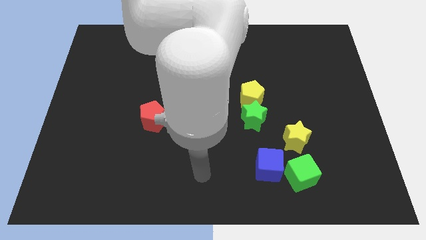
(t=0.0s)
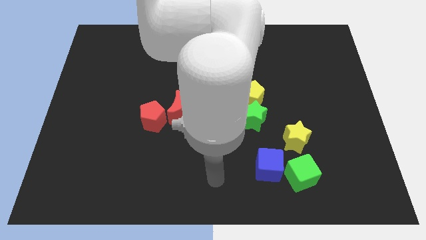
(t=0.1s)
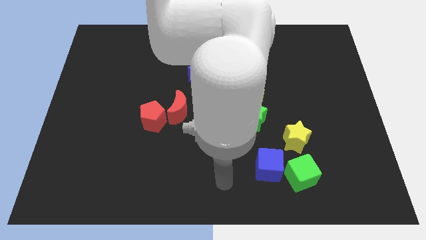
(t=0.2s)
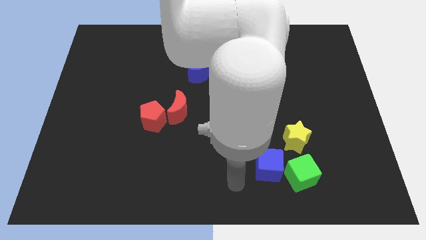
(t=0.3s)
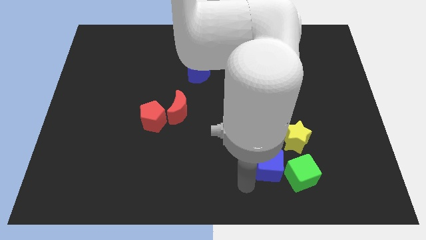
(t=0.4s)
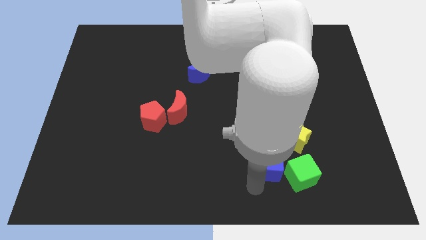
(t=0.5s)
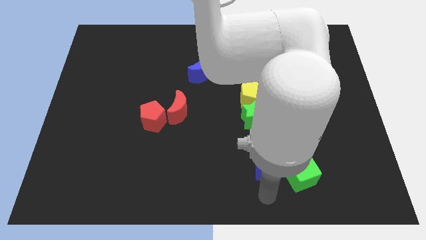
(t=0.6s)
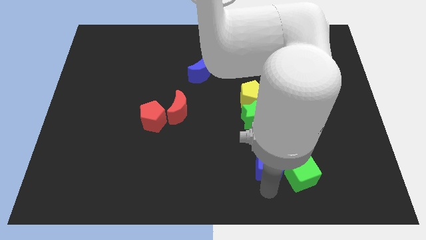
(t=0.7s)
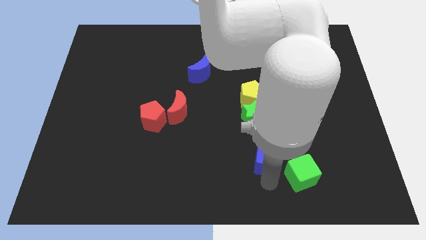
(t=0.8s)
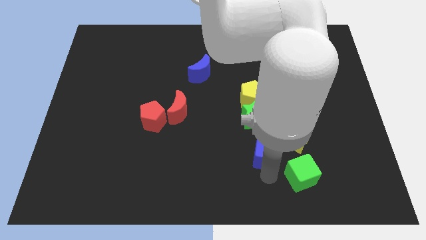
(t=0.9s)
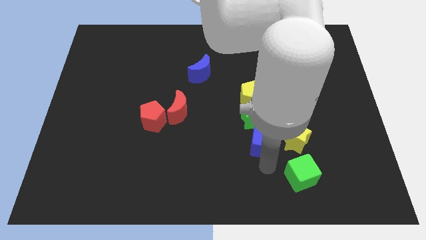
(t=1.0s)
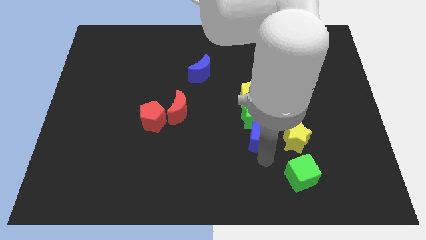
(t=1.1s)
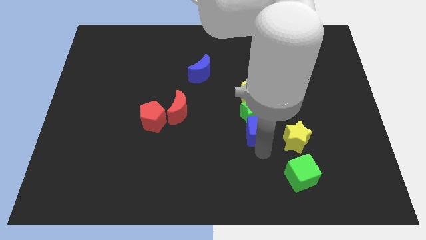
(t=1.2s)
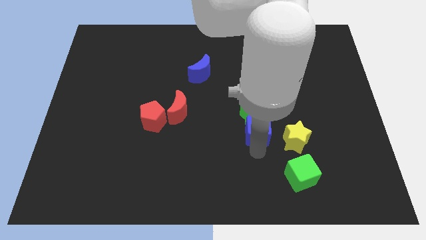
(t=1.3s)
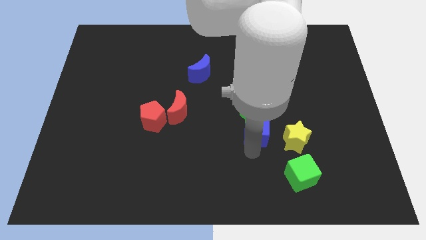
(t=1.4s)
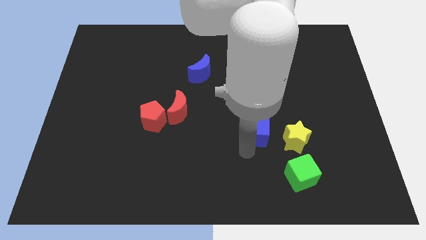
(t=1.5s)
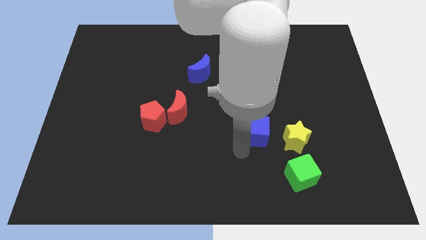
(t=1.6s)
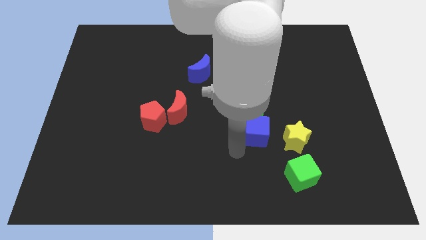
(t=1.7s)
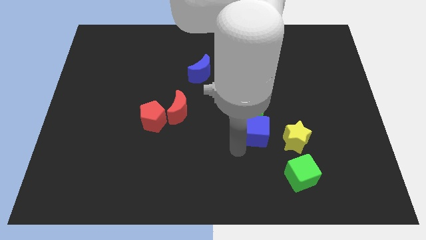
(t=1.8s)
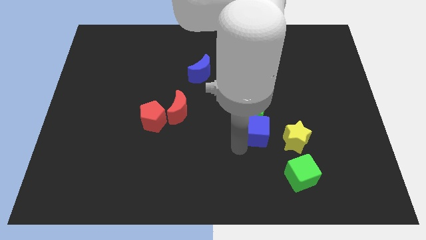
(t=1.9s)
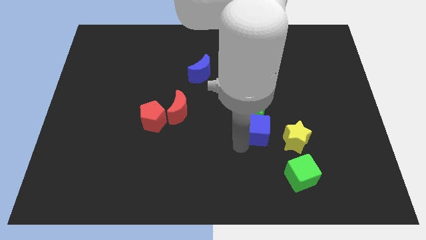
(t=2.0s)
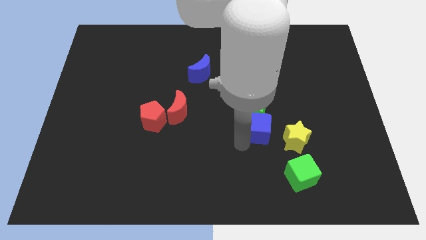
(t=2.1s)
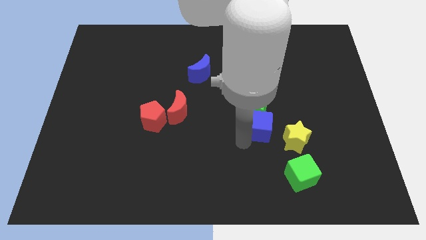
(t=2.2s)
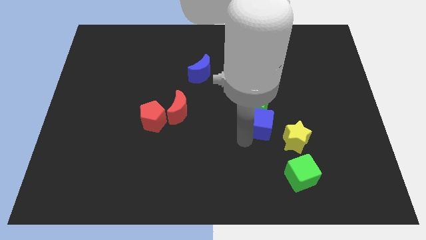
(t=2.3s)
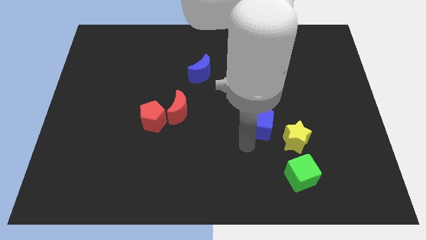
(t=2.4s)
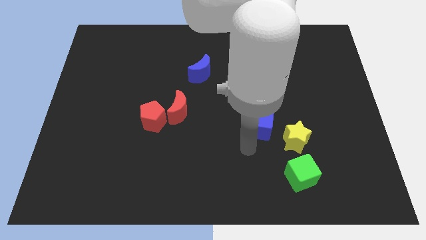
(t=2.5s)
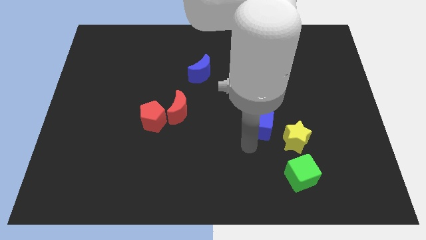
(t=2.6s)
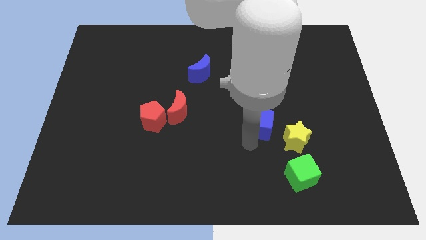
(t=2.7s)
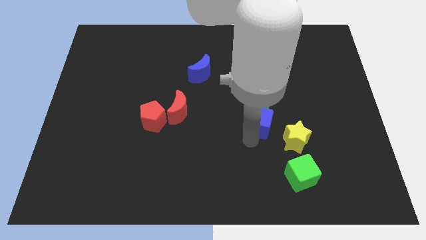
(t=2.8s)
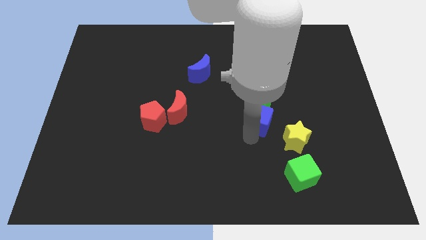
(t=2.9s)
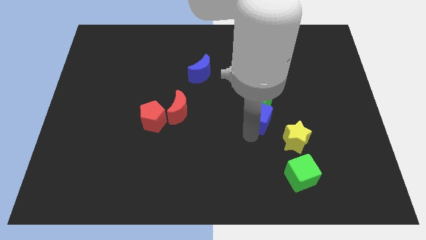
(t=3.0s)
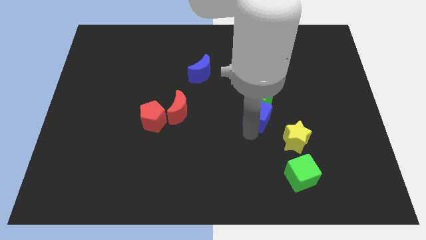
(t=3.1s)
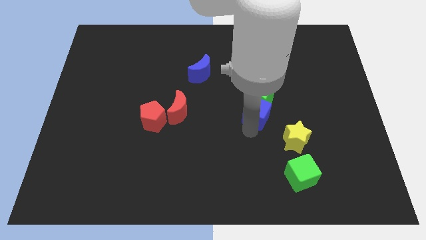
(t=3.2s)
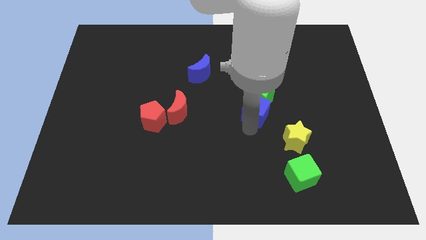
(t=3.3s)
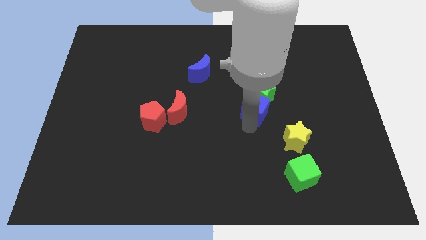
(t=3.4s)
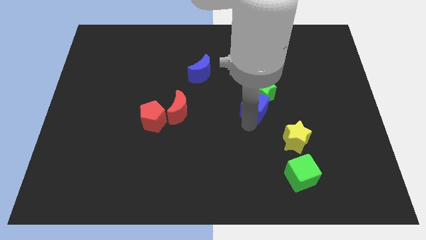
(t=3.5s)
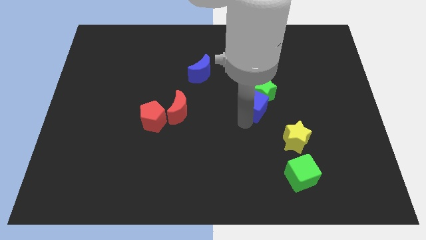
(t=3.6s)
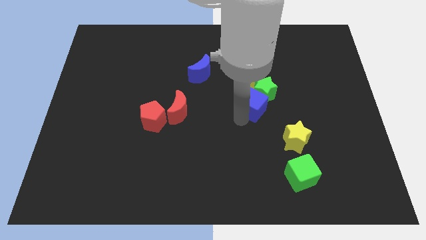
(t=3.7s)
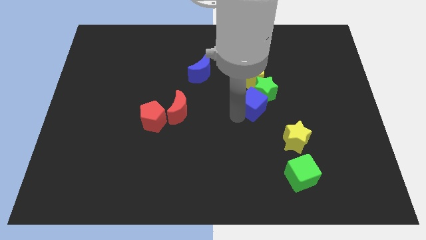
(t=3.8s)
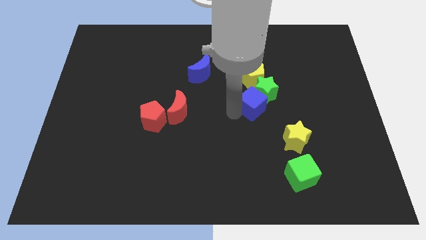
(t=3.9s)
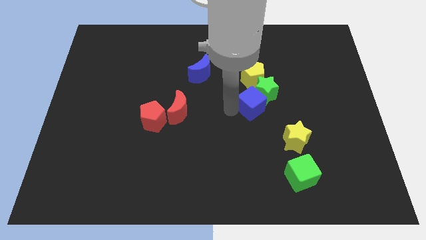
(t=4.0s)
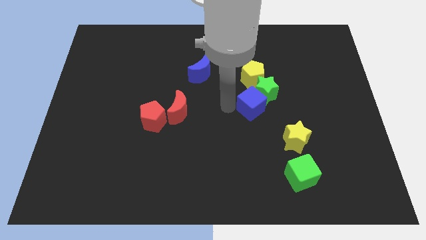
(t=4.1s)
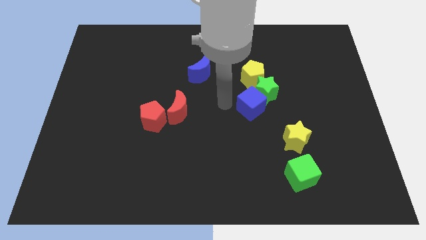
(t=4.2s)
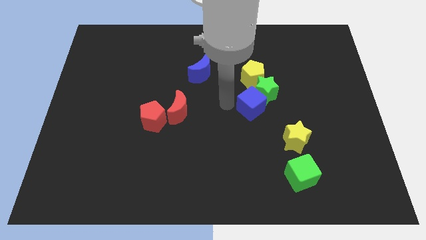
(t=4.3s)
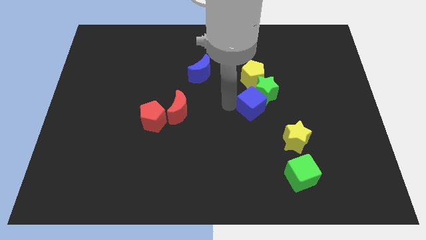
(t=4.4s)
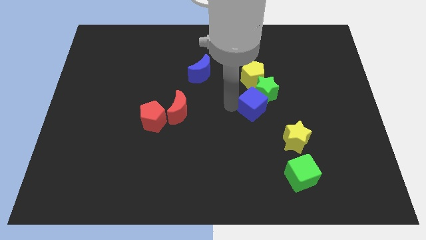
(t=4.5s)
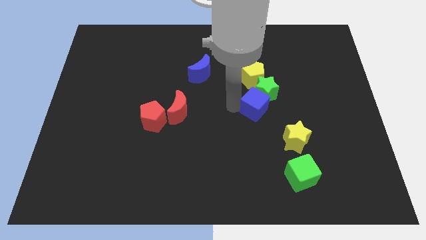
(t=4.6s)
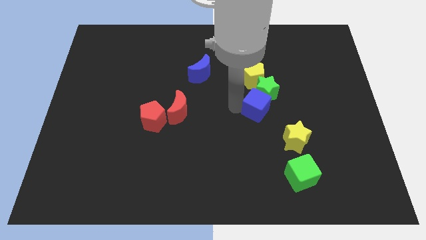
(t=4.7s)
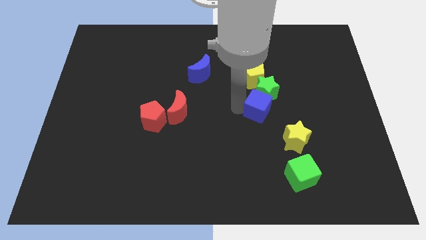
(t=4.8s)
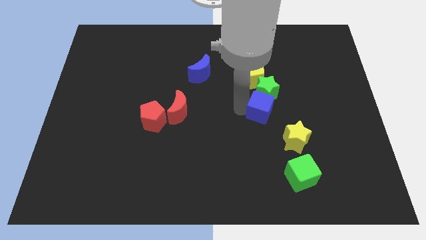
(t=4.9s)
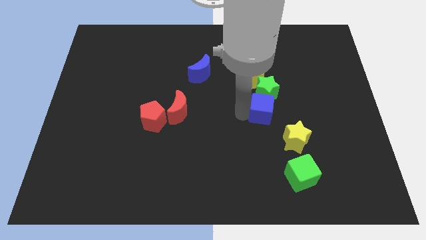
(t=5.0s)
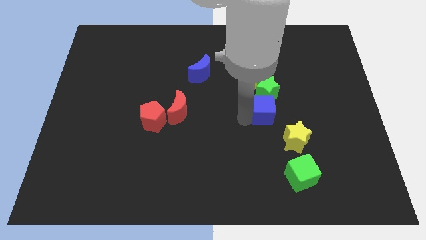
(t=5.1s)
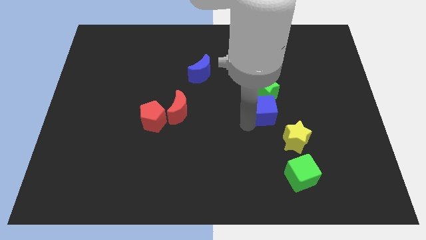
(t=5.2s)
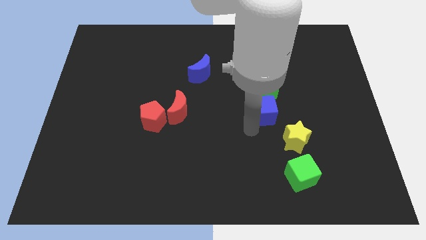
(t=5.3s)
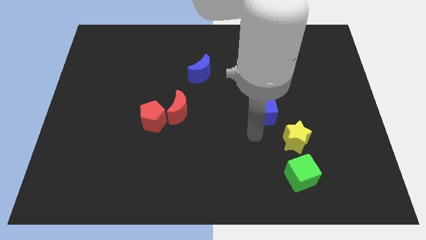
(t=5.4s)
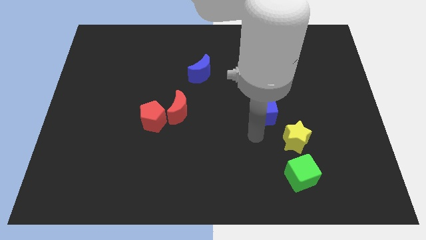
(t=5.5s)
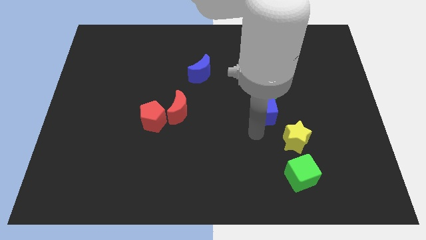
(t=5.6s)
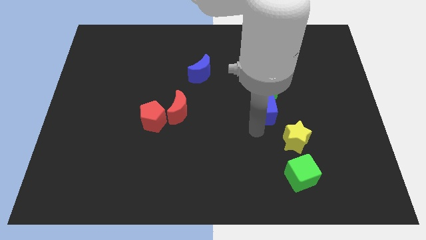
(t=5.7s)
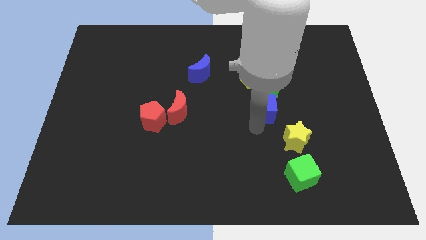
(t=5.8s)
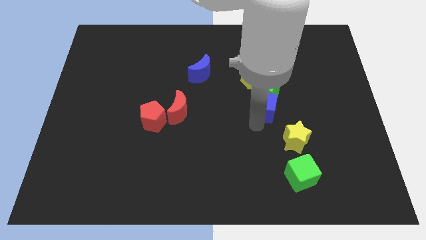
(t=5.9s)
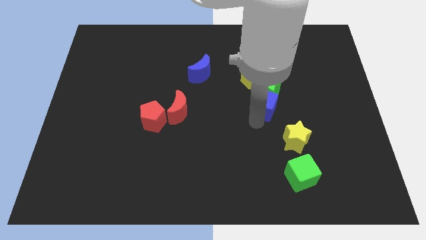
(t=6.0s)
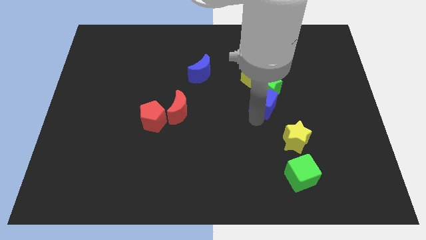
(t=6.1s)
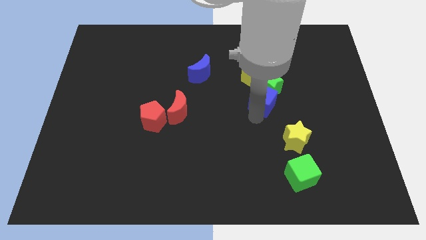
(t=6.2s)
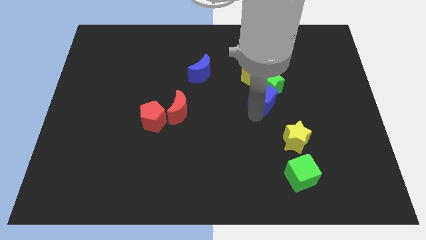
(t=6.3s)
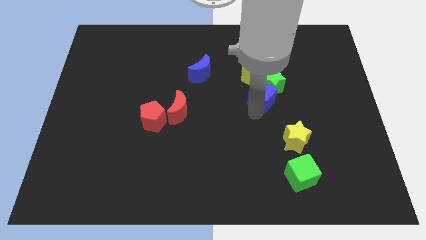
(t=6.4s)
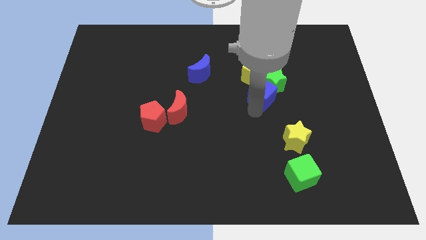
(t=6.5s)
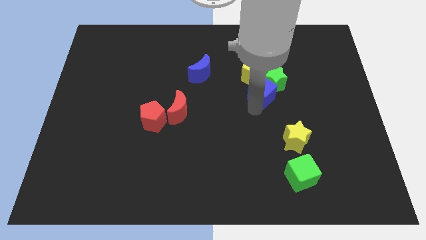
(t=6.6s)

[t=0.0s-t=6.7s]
slide the blue cube up

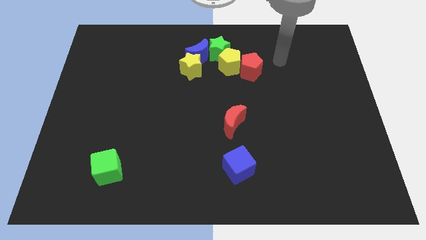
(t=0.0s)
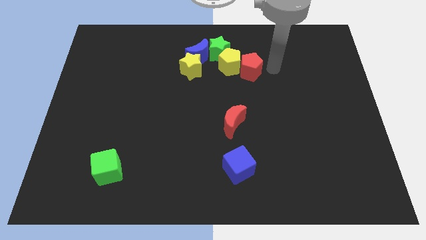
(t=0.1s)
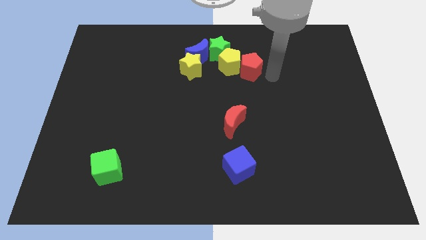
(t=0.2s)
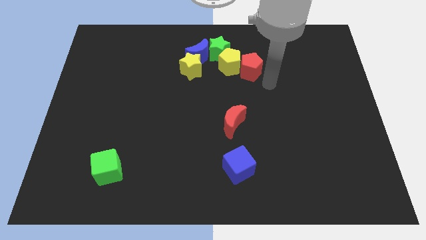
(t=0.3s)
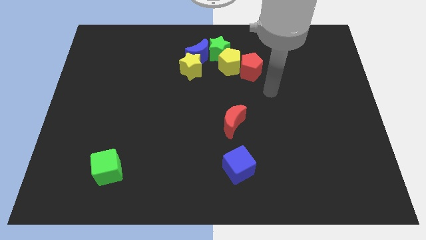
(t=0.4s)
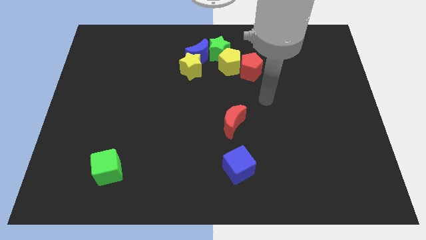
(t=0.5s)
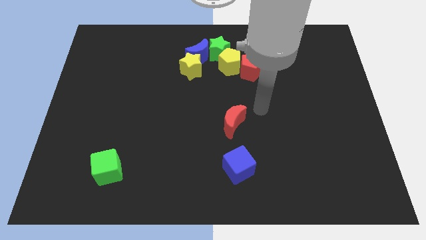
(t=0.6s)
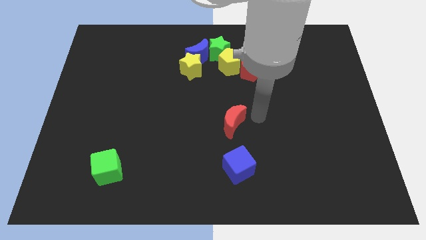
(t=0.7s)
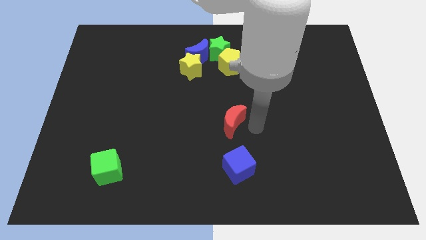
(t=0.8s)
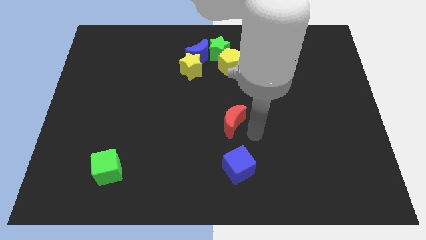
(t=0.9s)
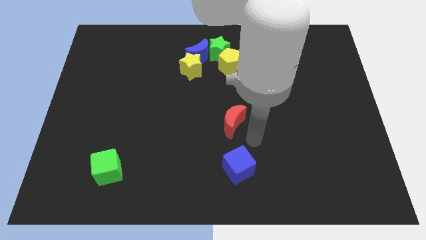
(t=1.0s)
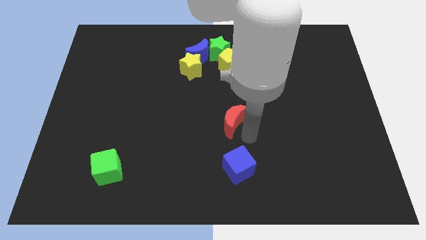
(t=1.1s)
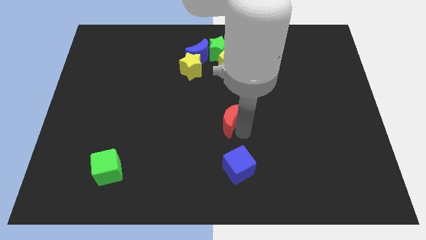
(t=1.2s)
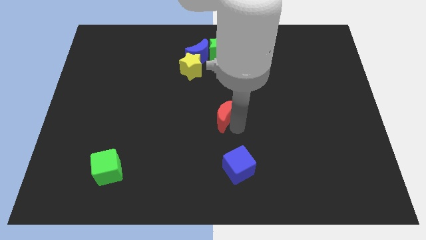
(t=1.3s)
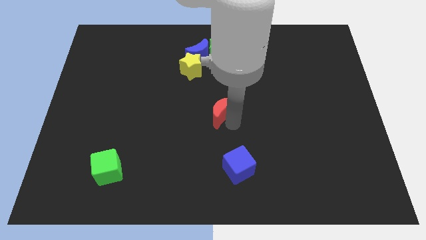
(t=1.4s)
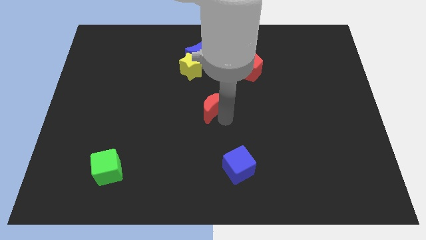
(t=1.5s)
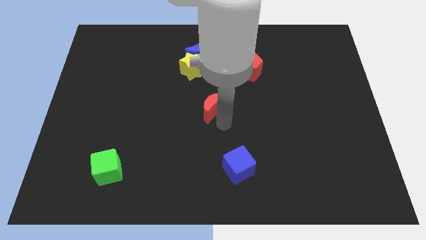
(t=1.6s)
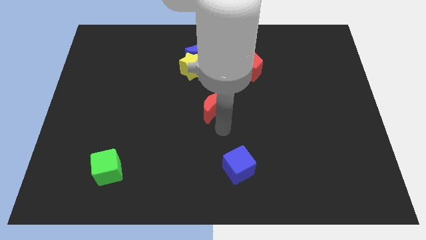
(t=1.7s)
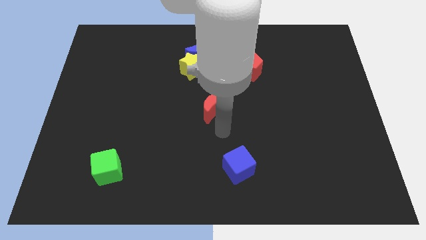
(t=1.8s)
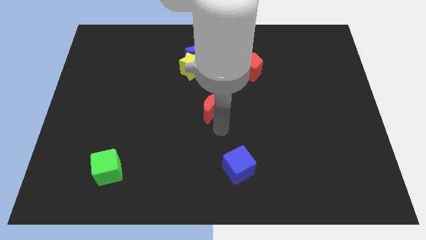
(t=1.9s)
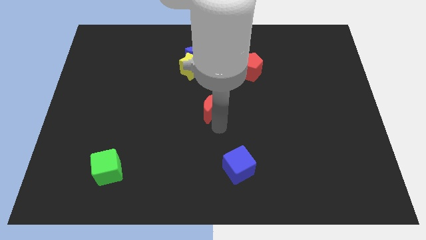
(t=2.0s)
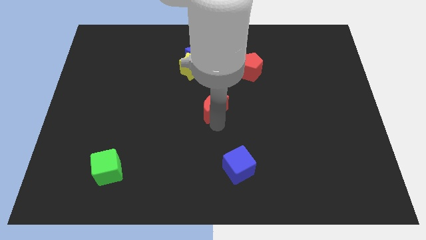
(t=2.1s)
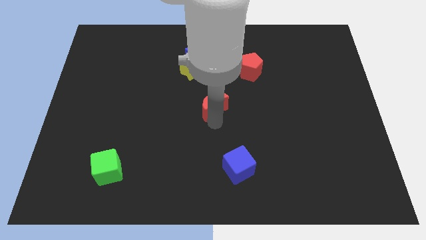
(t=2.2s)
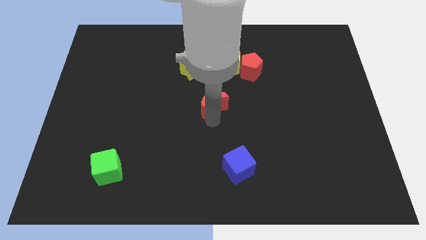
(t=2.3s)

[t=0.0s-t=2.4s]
move the red moon diagonally upwards and to the left slightly
